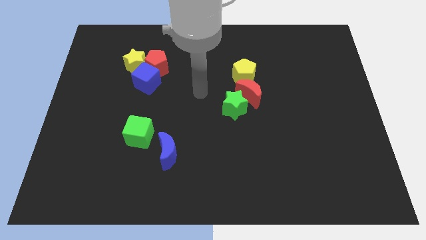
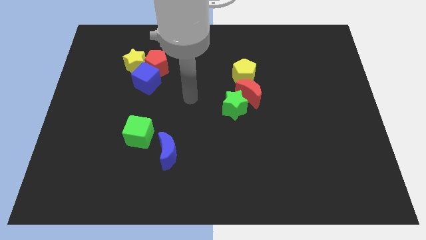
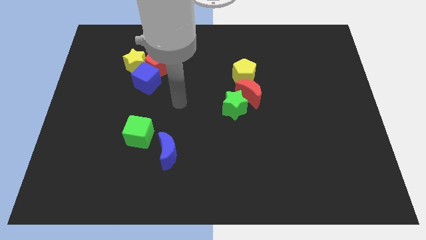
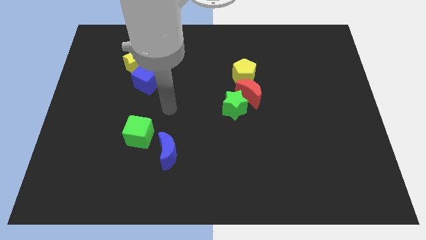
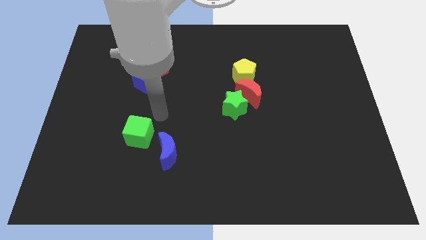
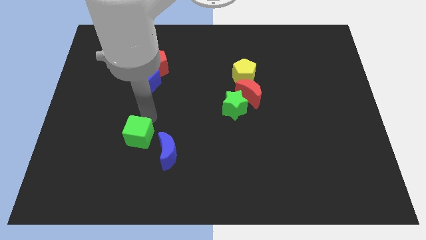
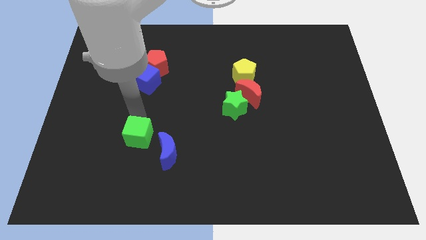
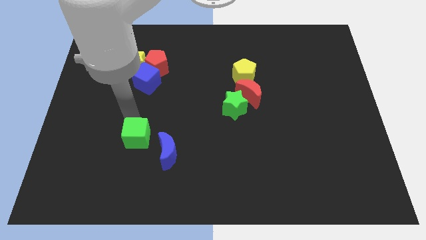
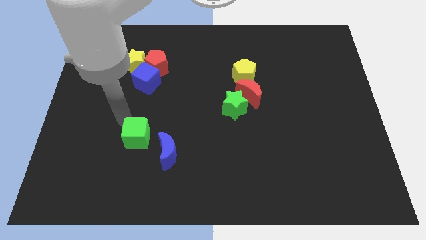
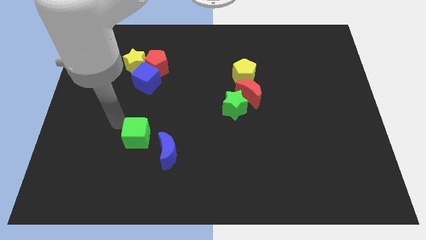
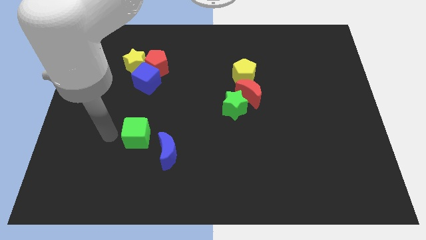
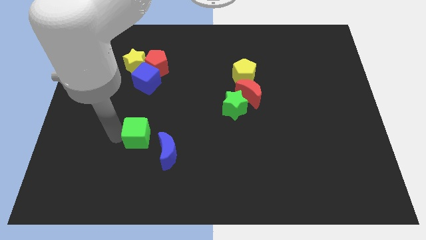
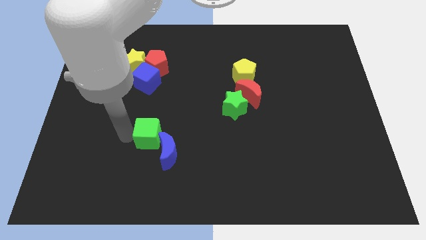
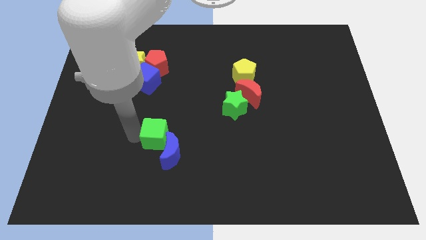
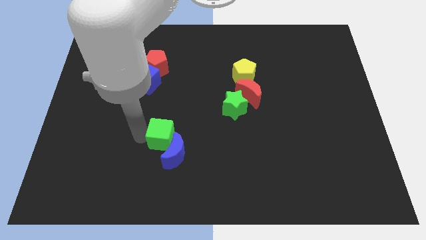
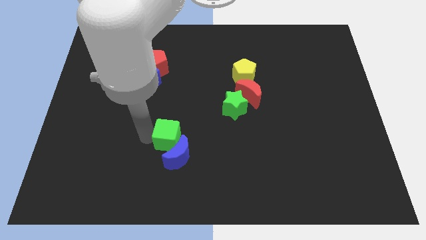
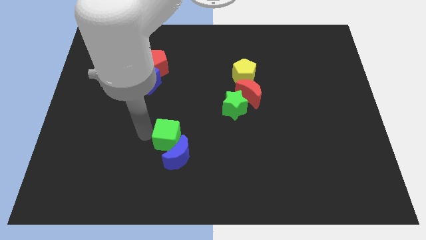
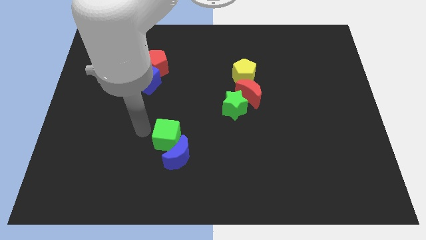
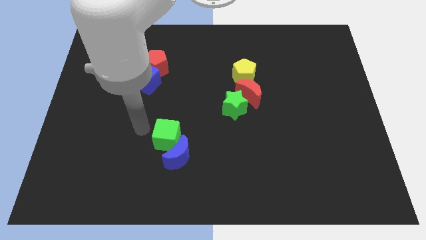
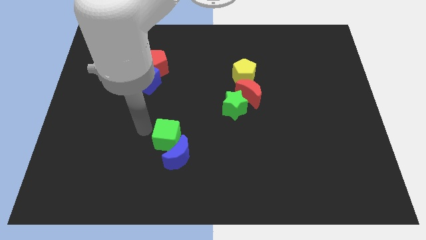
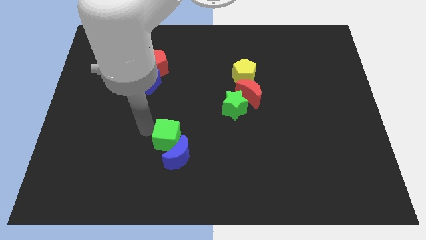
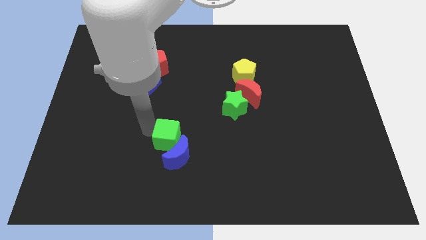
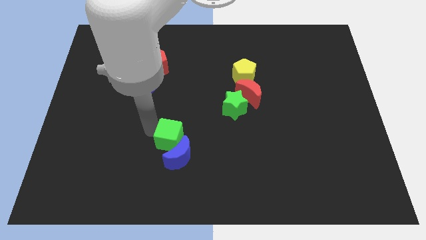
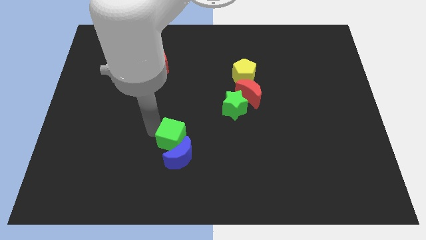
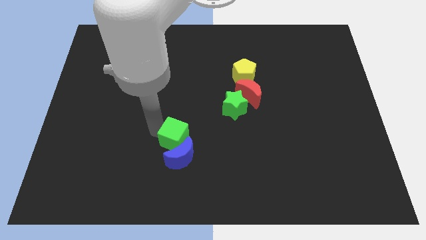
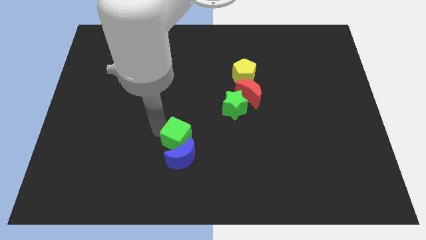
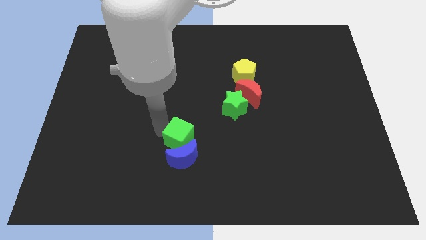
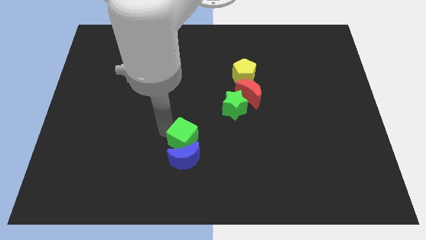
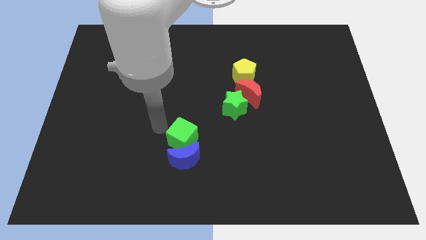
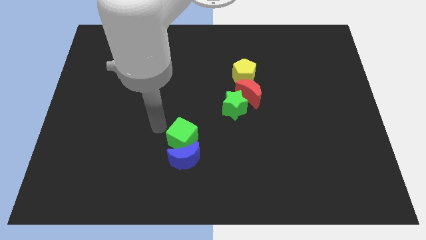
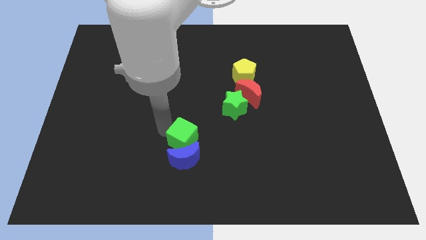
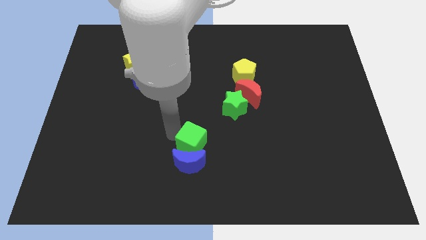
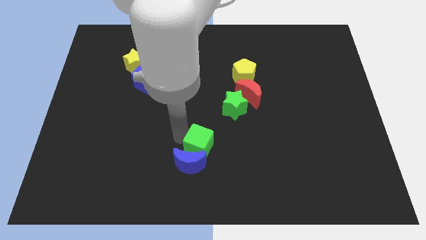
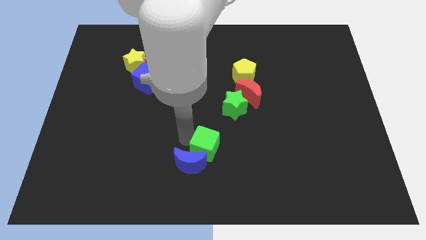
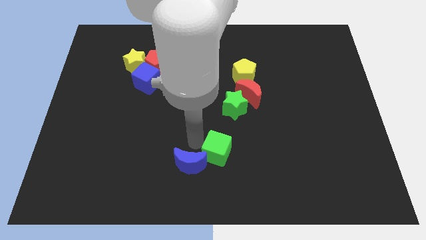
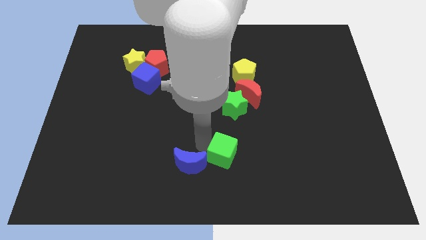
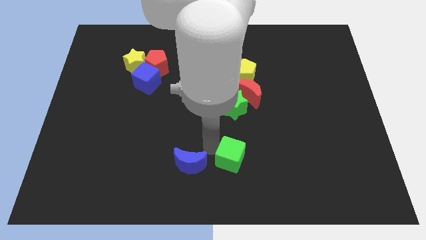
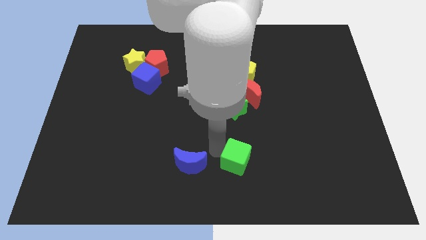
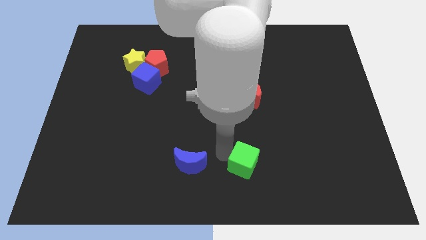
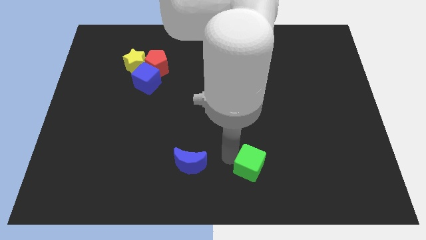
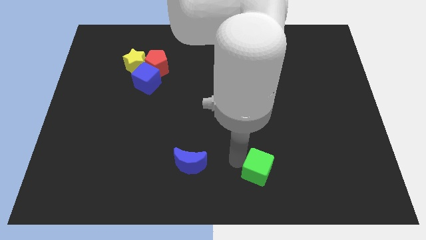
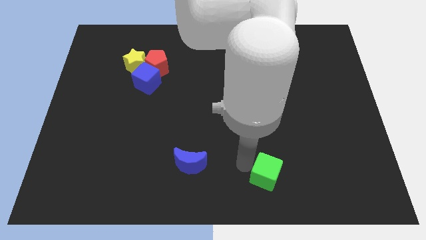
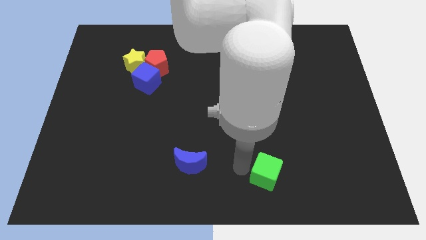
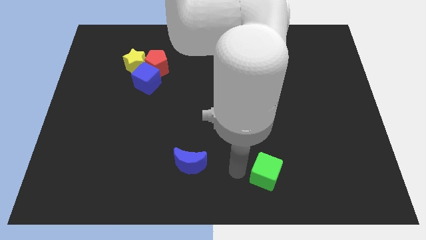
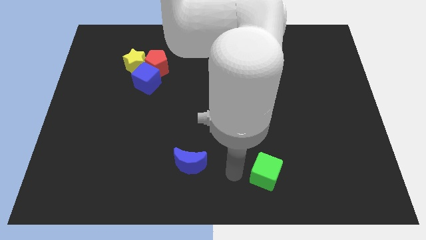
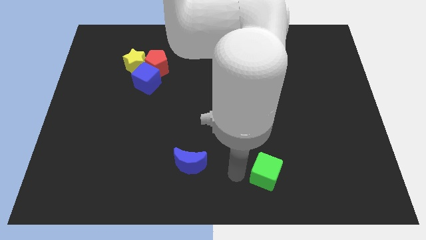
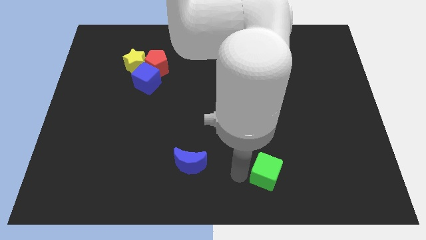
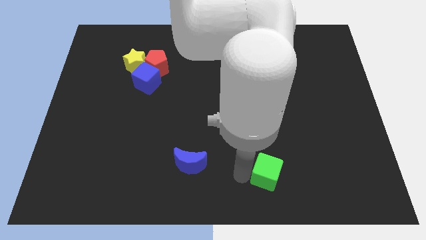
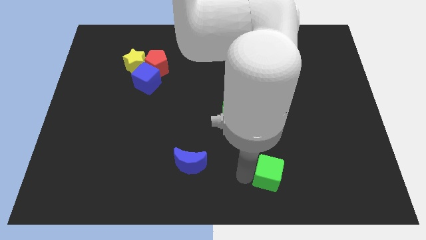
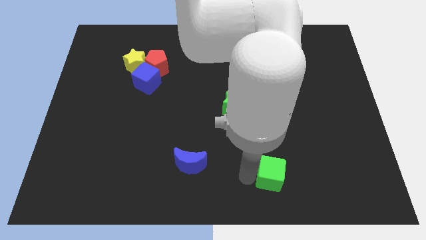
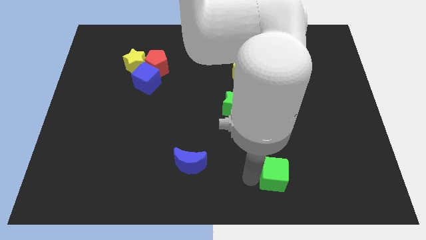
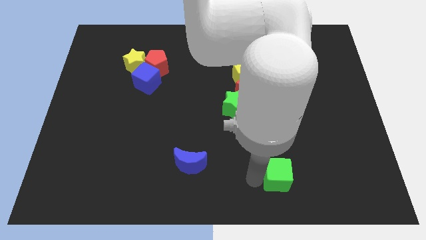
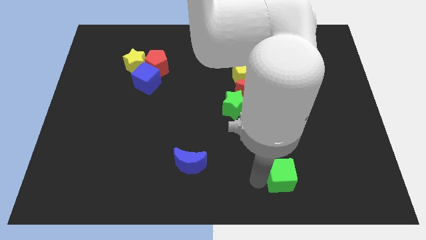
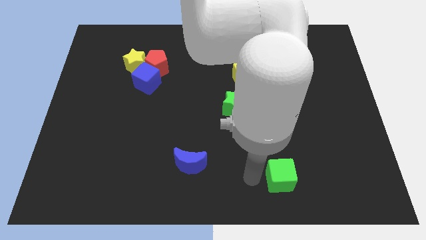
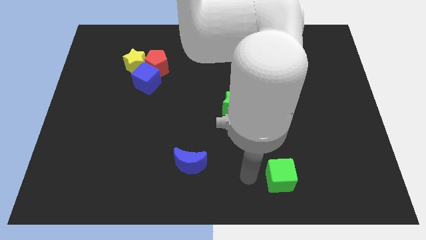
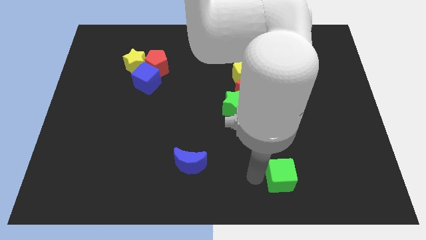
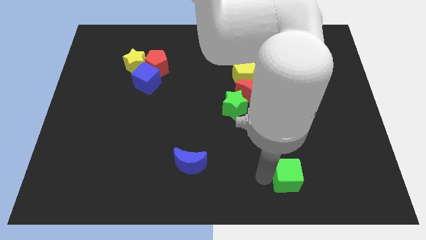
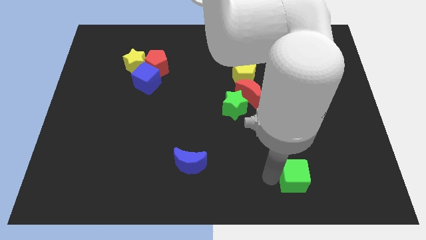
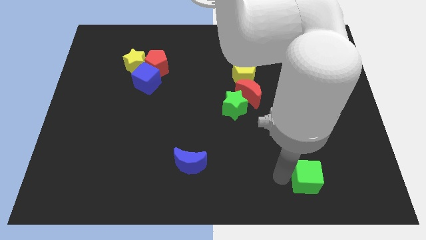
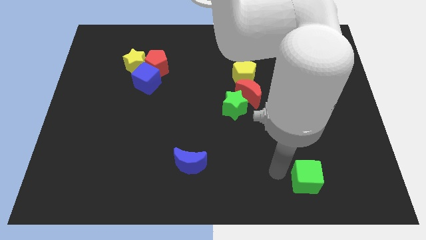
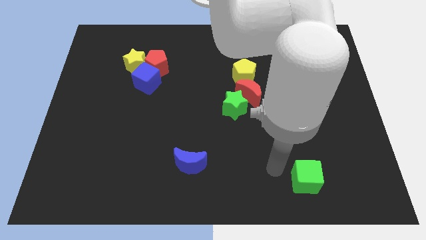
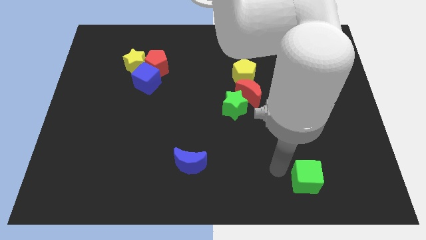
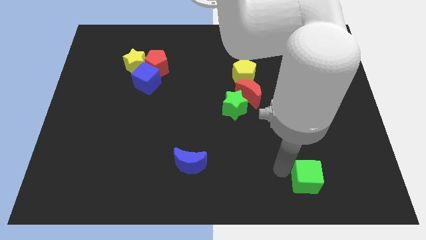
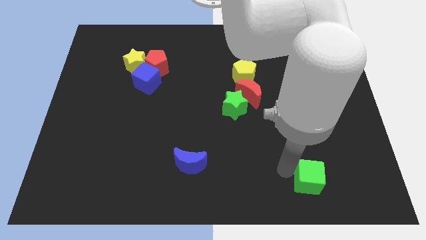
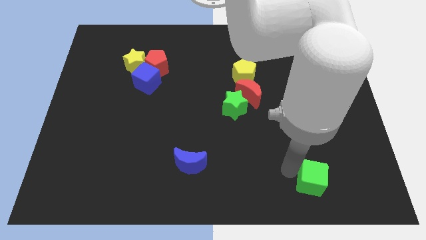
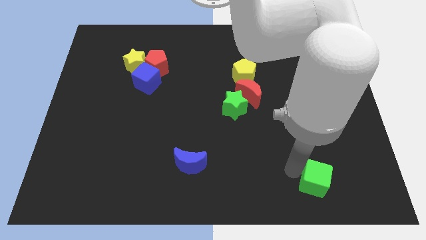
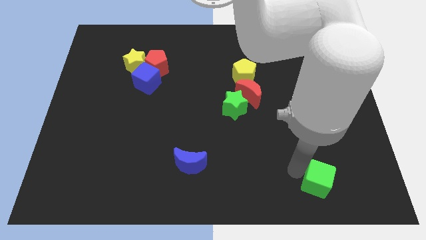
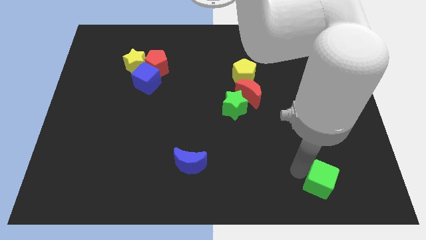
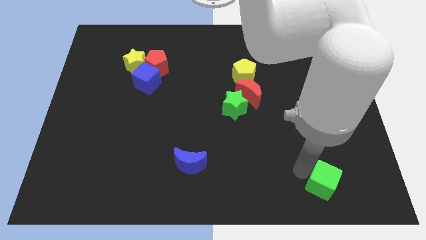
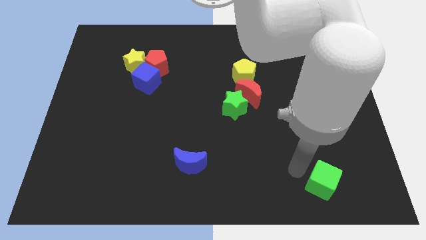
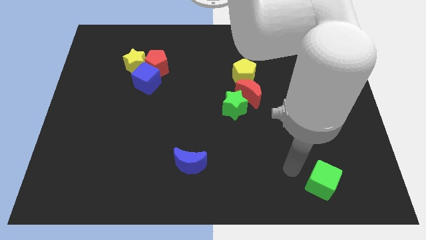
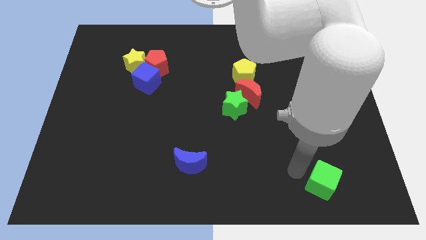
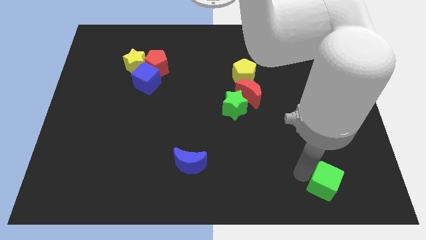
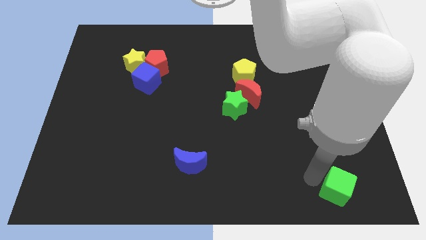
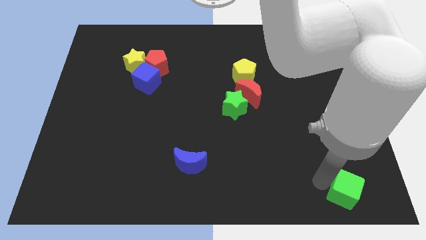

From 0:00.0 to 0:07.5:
put the green cube to the bottom right
